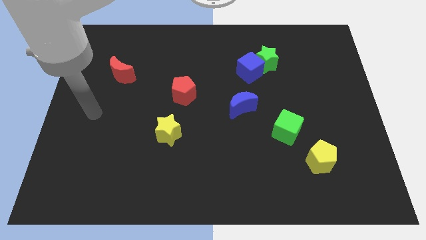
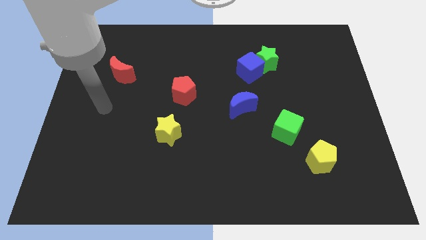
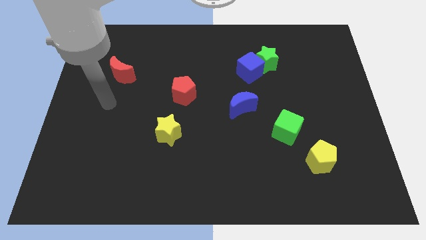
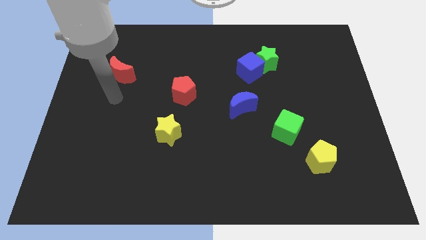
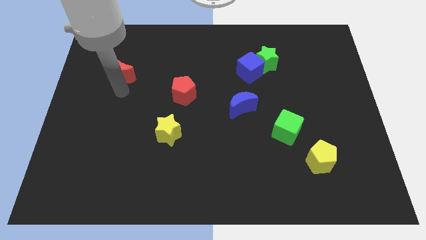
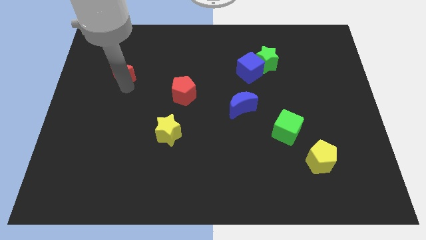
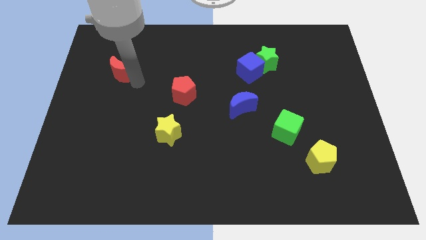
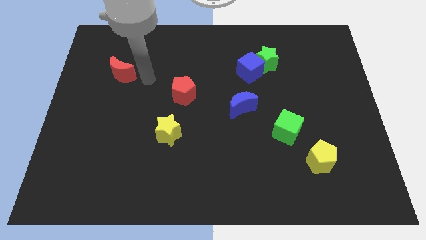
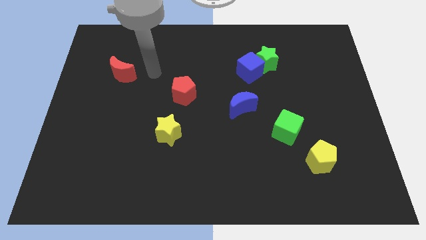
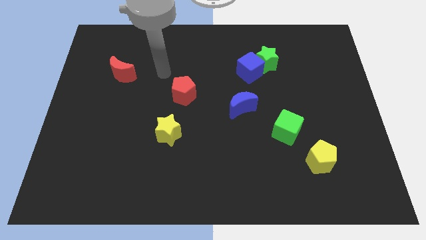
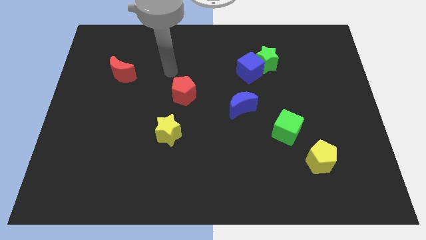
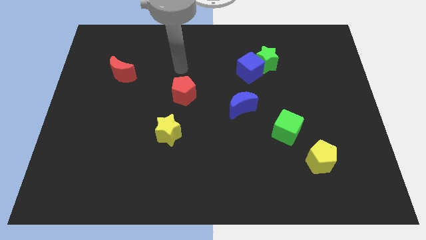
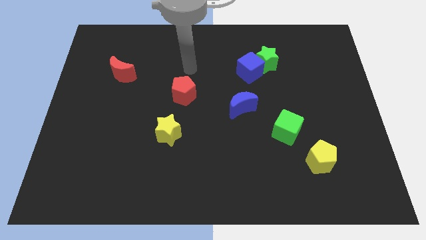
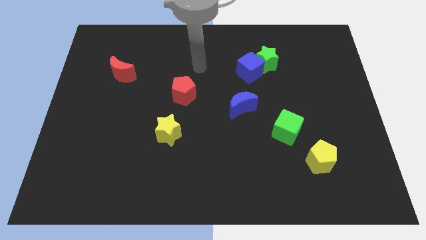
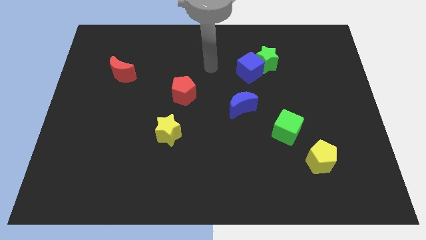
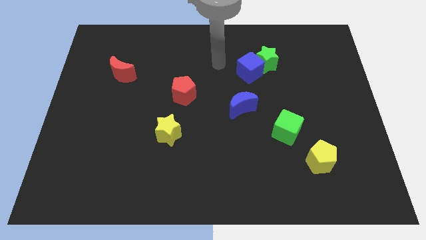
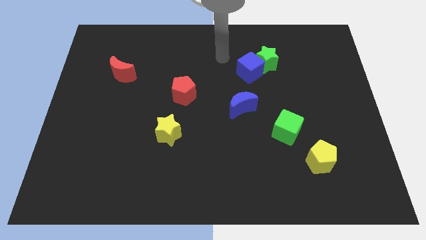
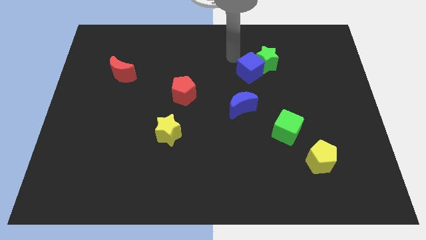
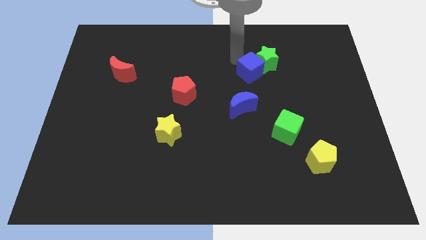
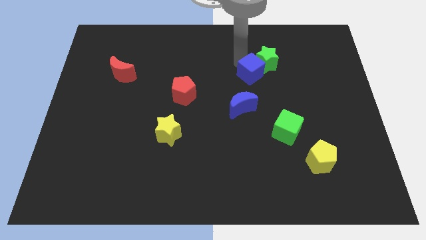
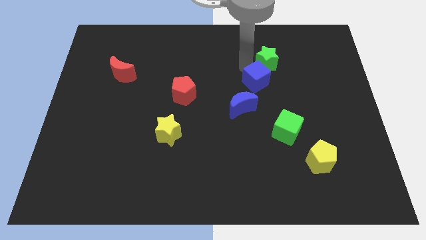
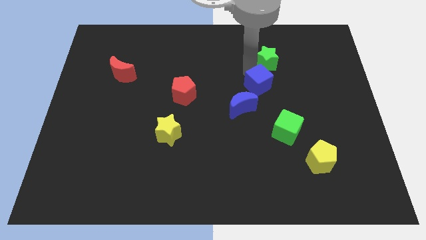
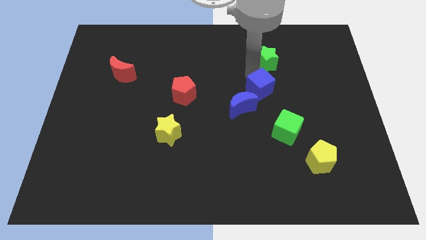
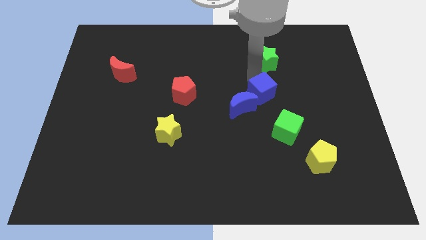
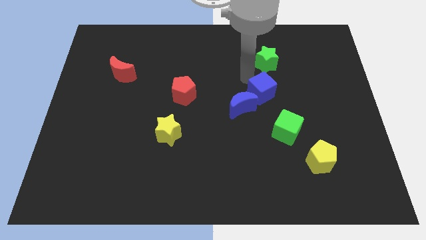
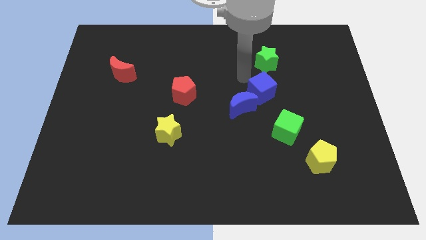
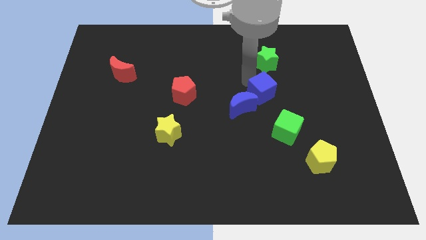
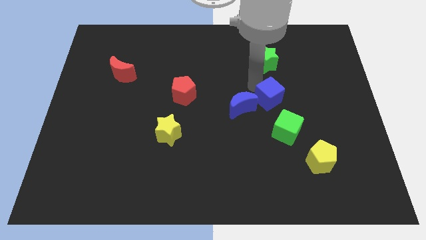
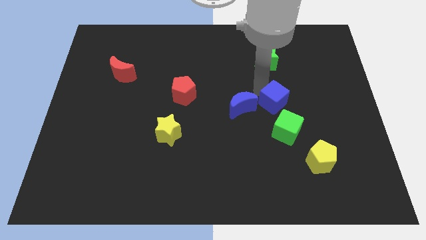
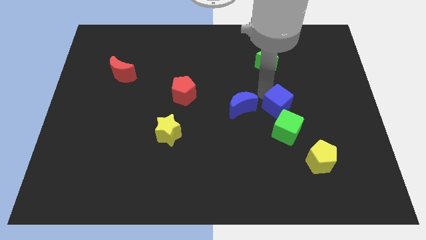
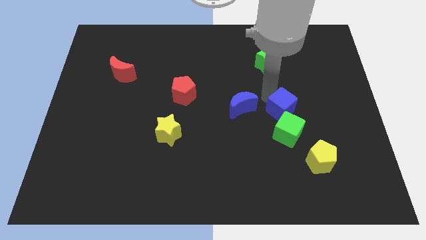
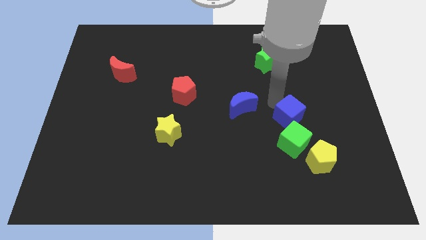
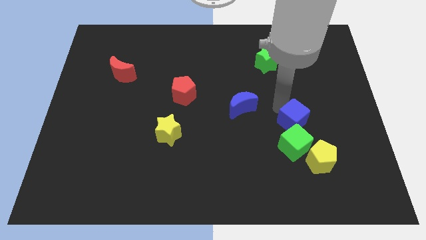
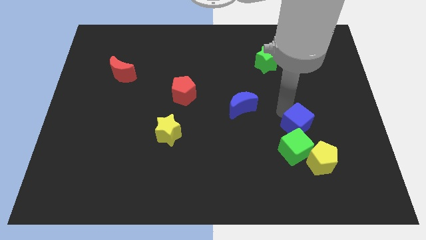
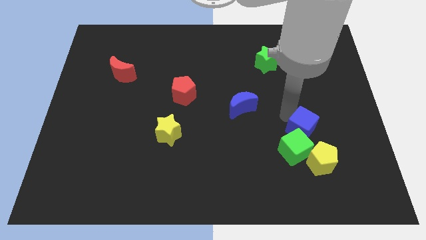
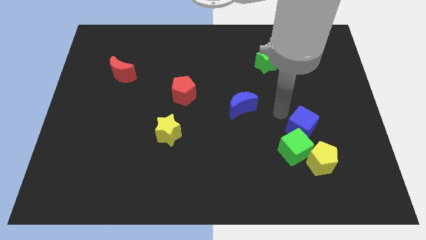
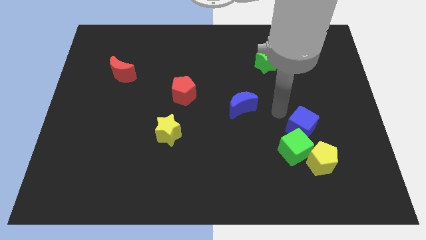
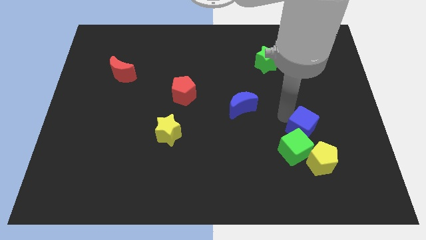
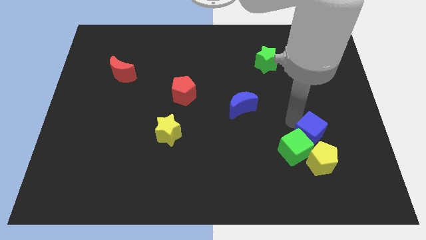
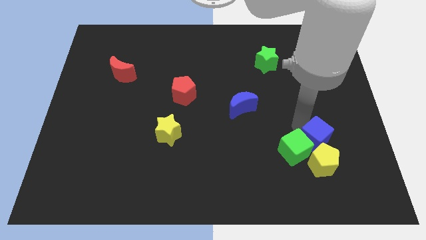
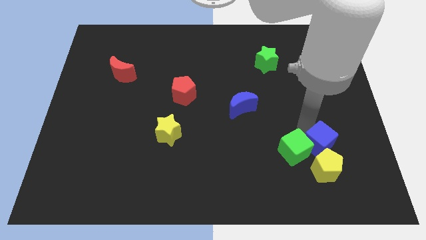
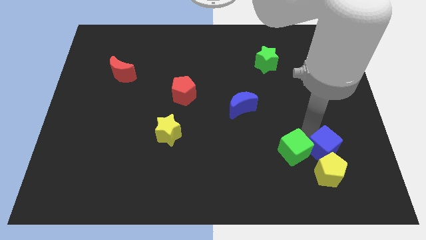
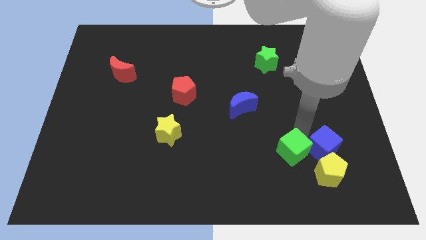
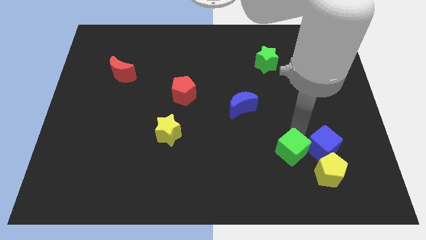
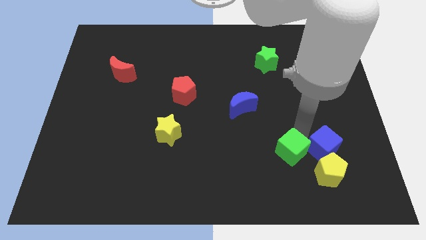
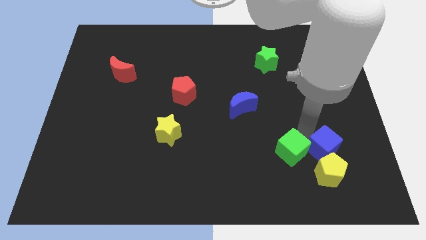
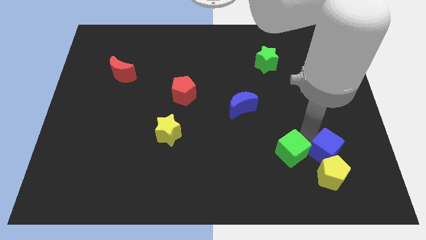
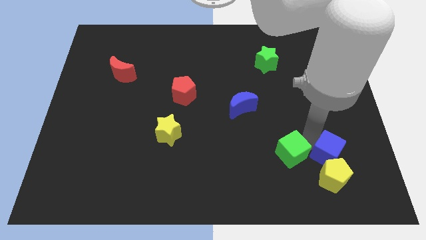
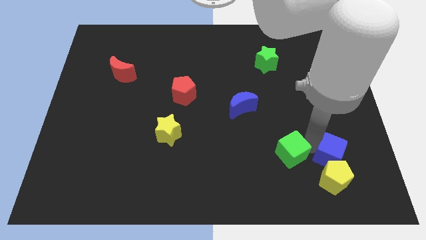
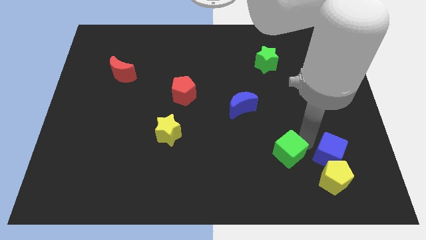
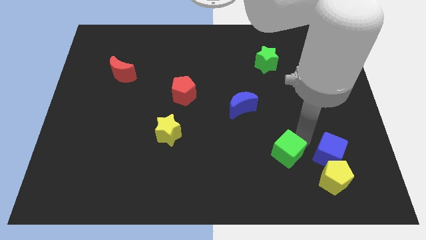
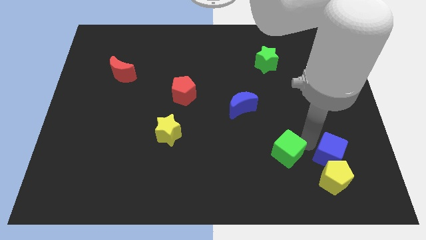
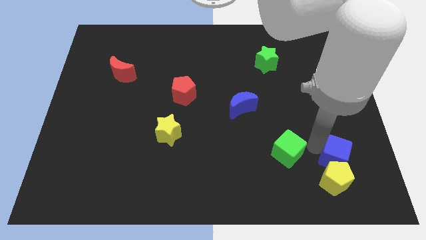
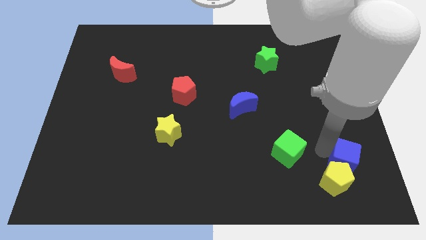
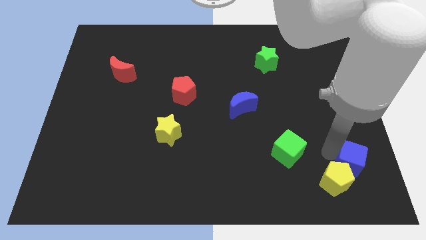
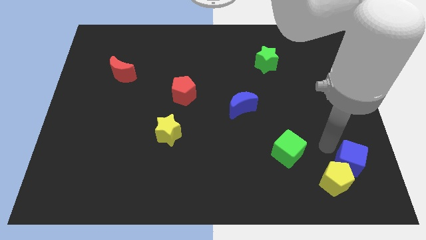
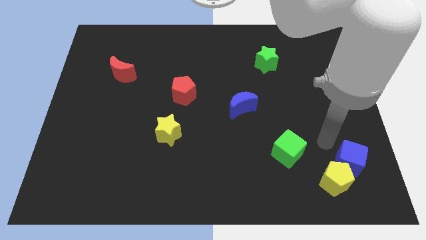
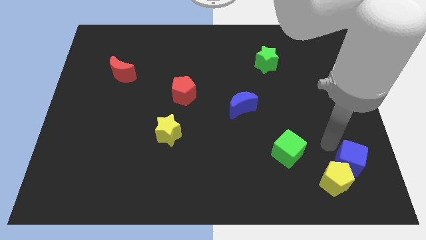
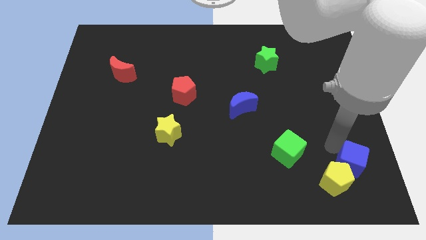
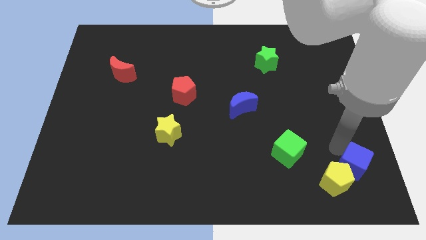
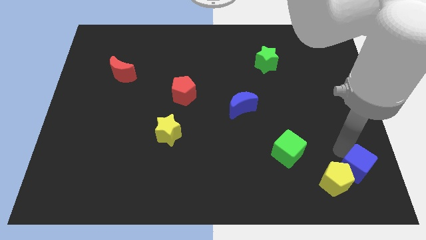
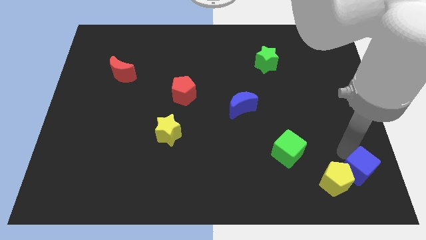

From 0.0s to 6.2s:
push the blue cube to the lower right corner

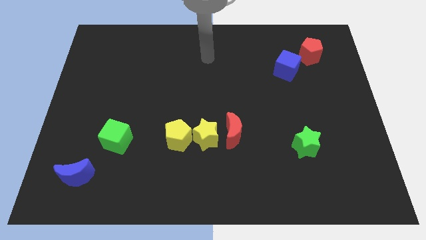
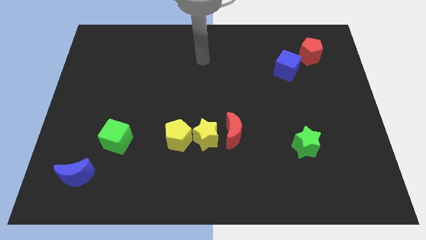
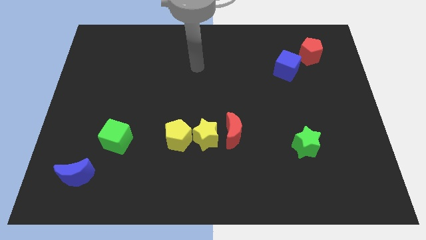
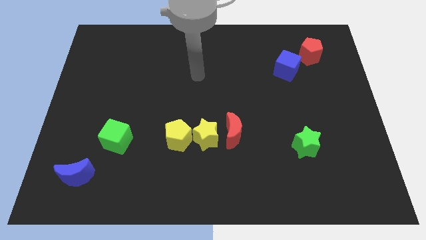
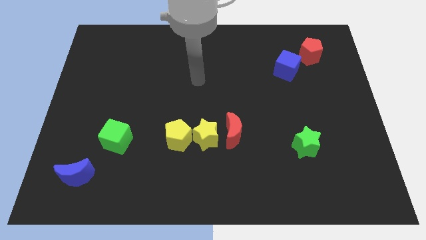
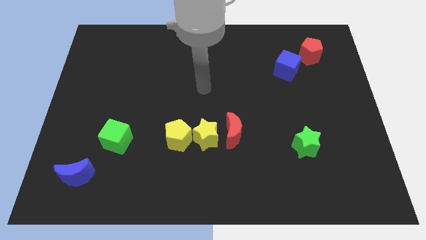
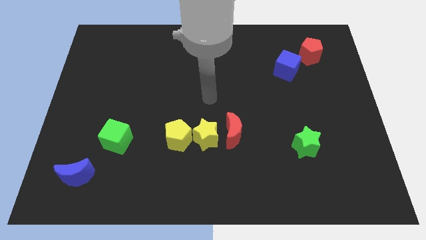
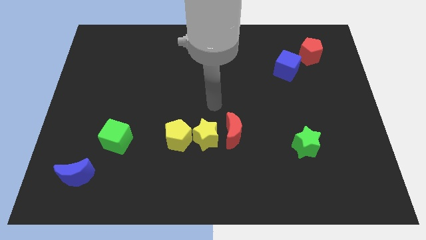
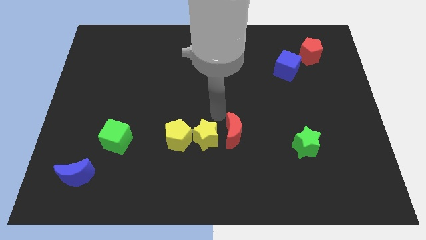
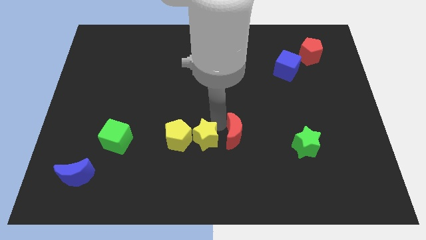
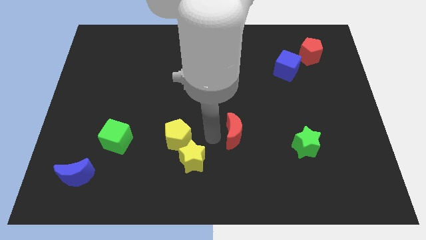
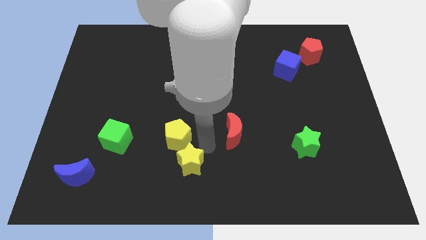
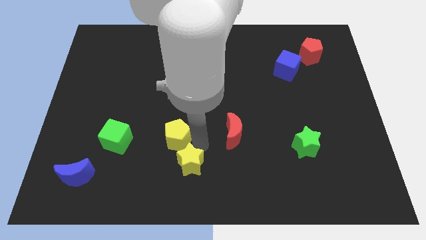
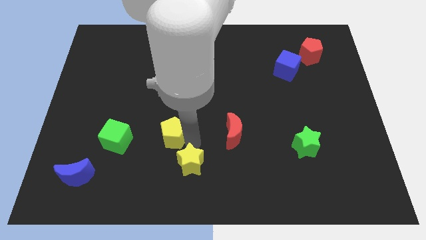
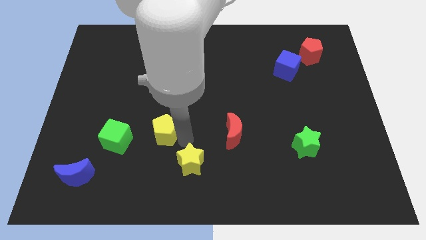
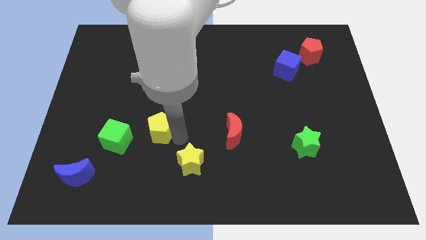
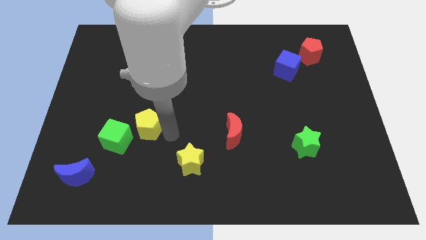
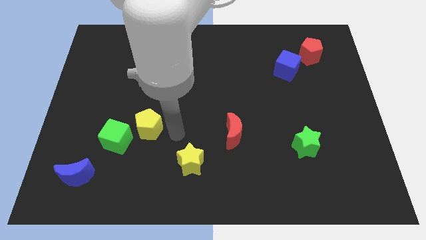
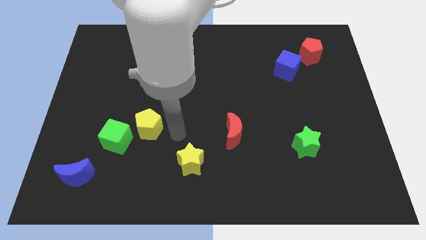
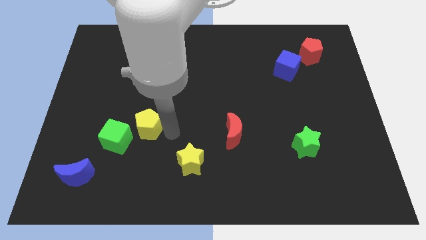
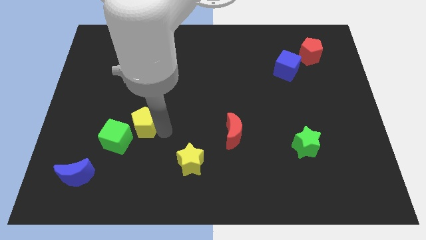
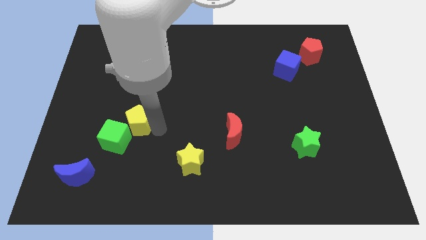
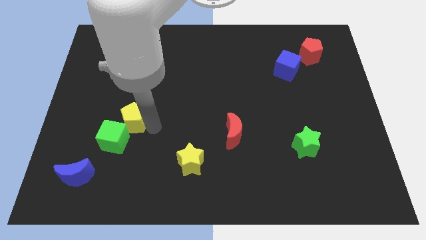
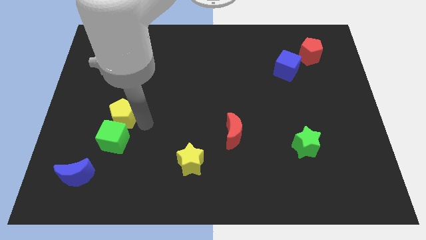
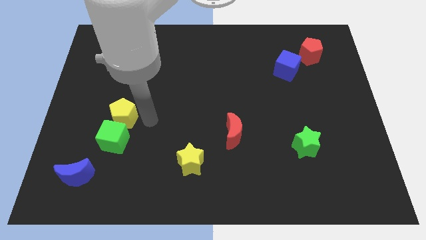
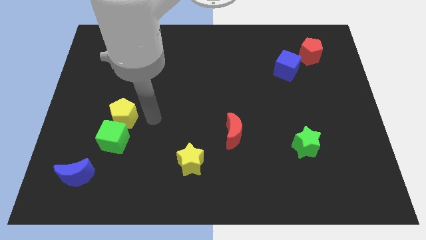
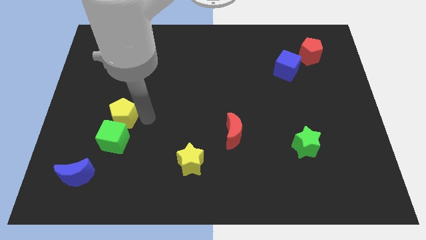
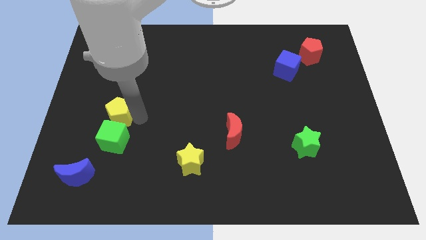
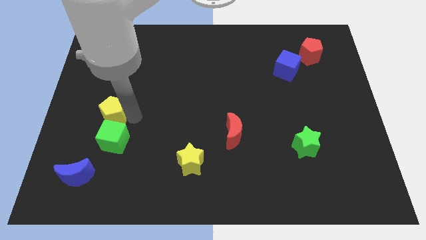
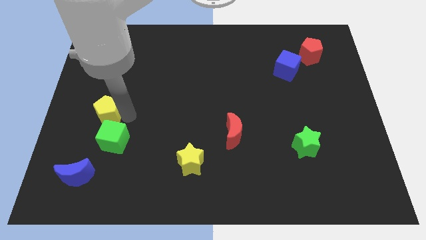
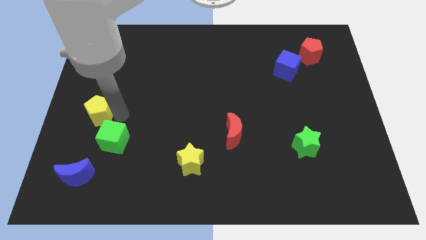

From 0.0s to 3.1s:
put the yellow pentagon to the center left
